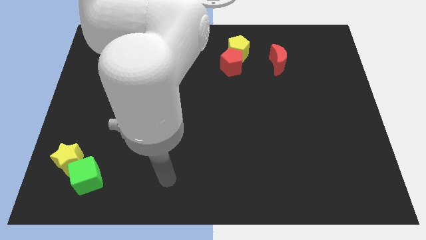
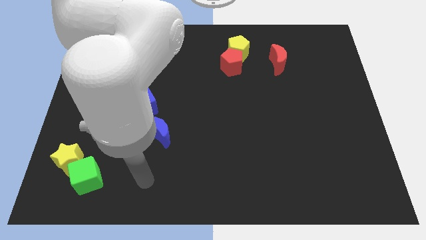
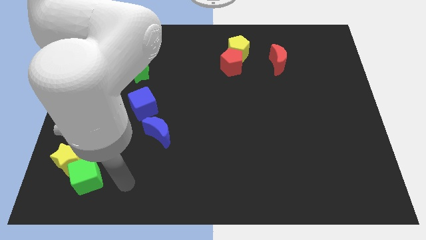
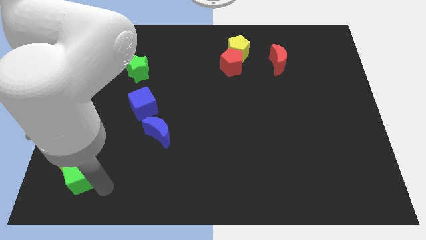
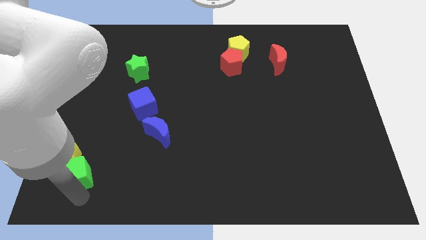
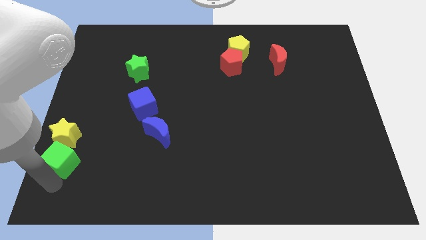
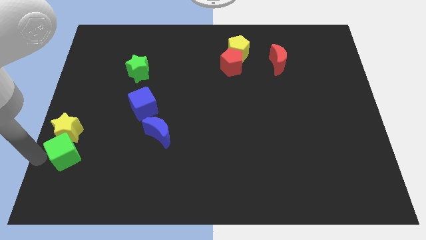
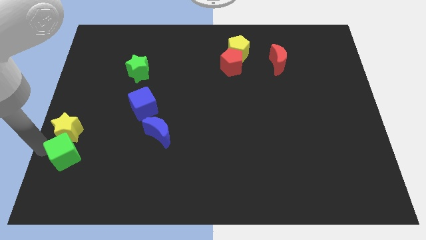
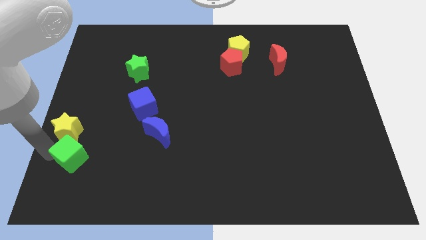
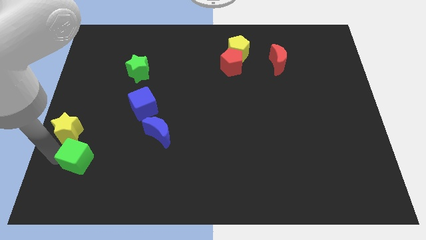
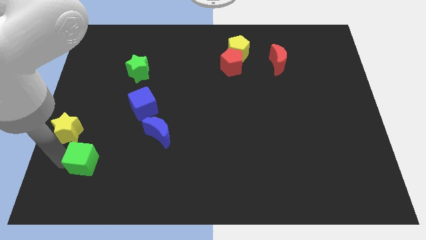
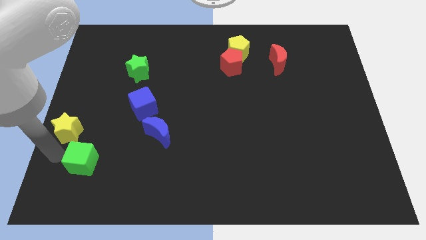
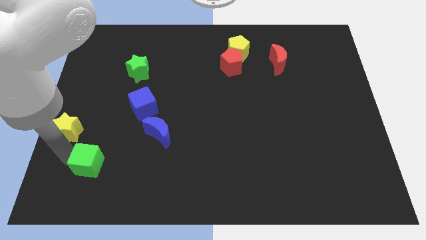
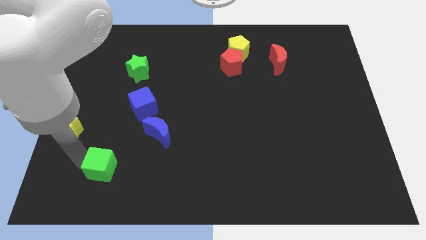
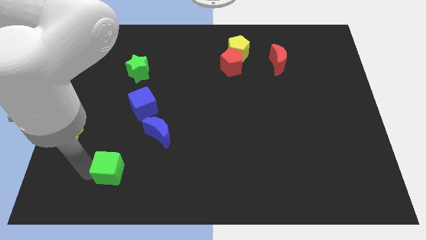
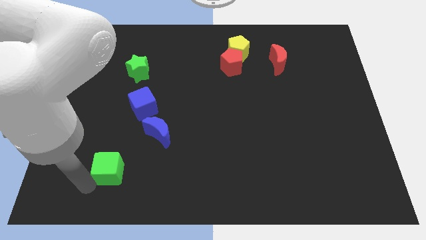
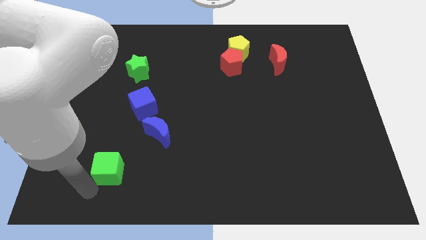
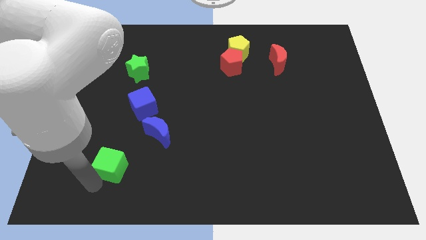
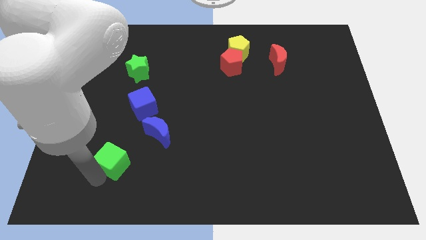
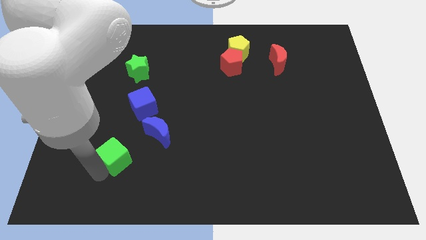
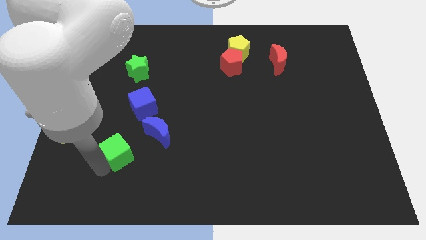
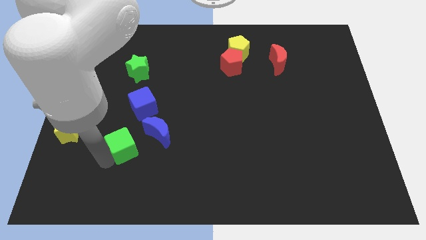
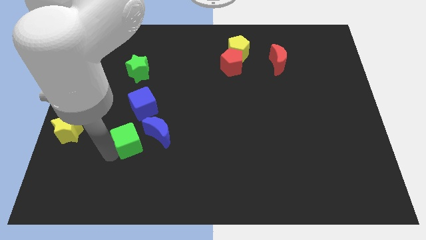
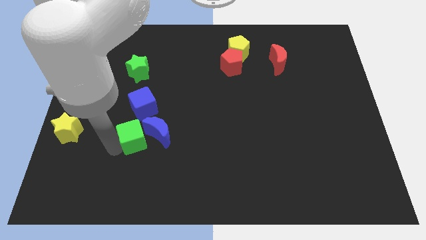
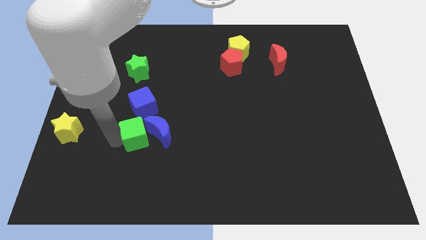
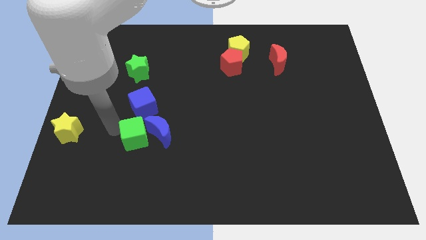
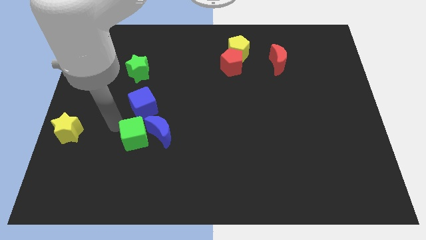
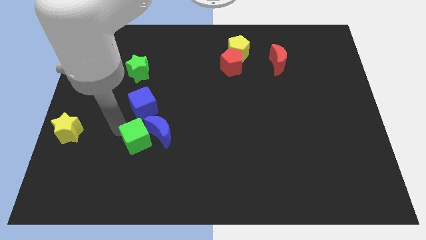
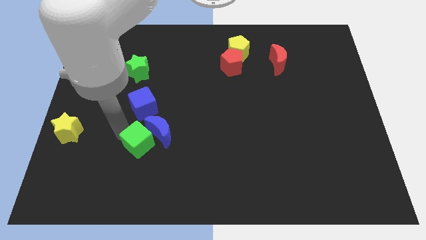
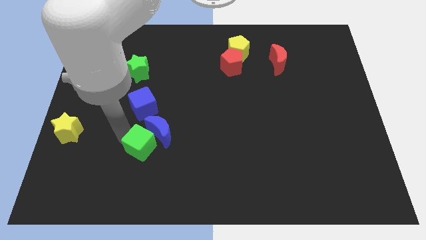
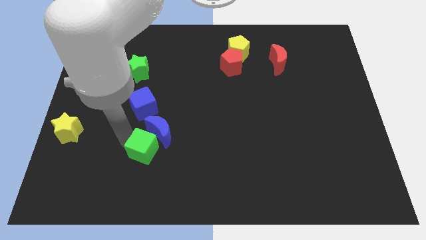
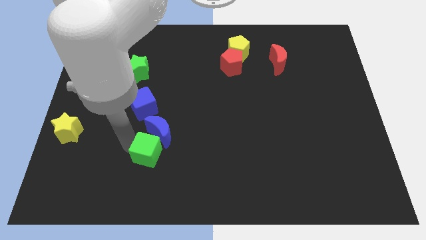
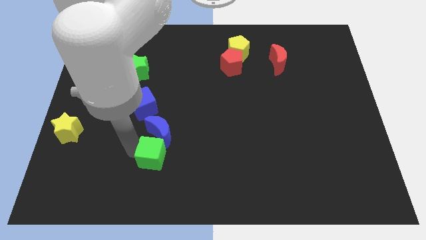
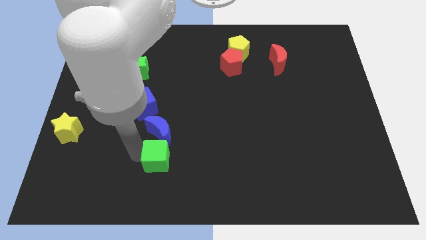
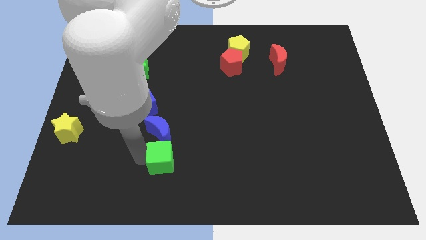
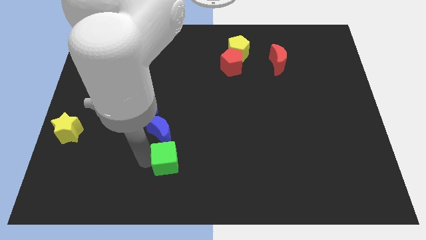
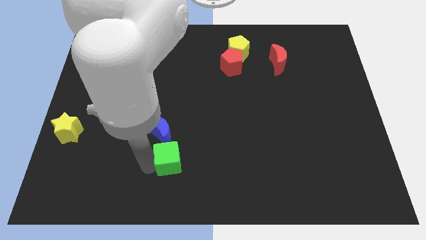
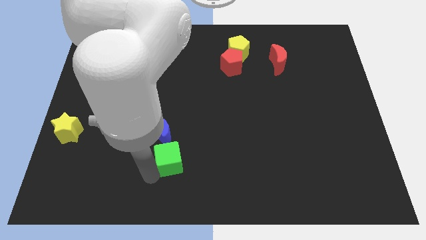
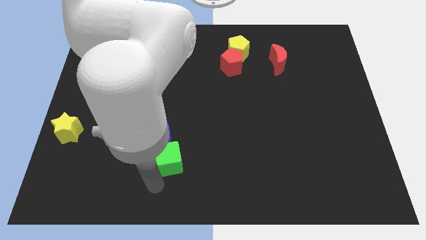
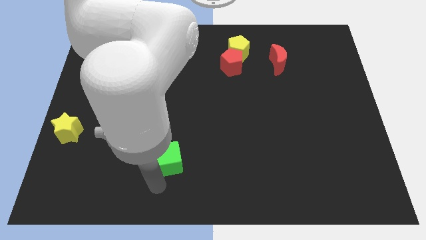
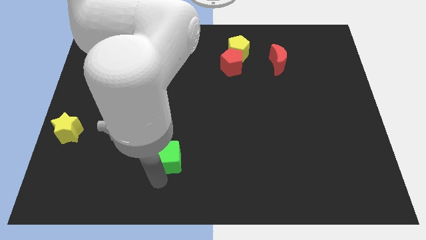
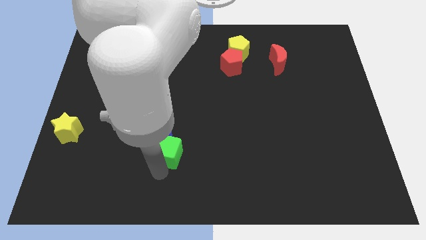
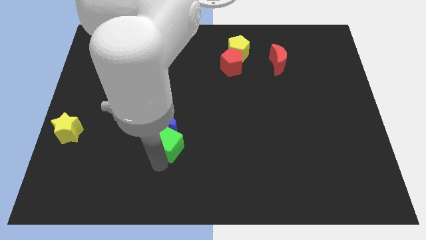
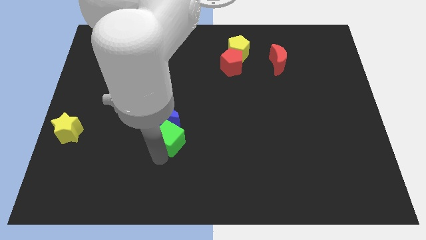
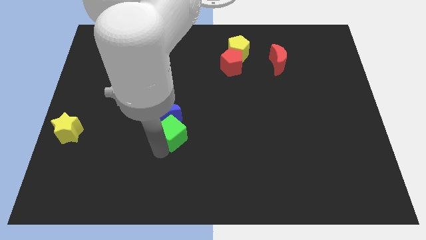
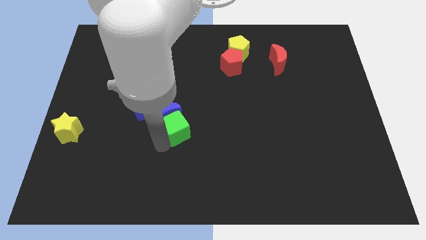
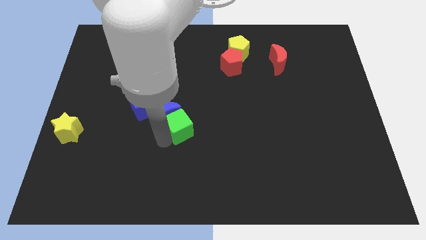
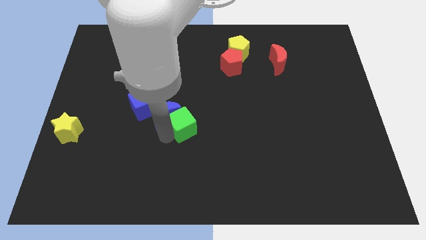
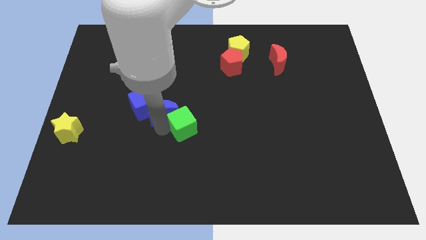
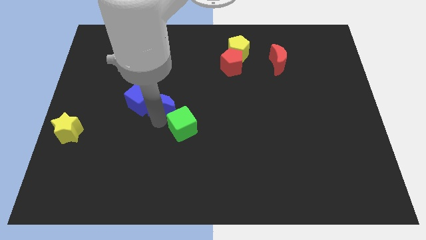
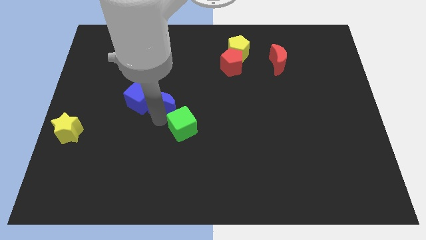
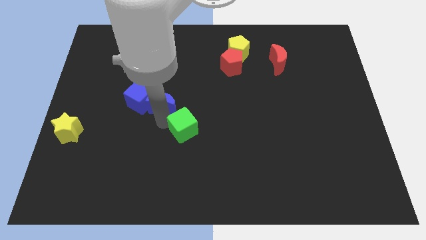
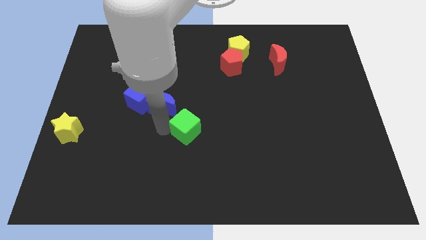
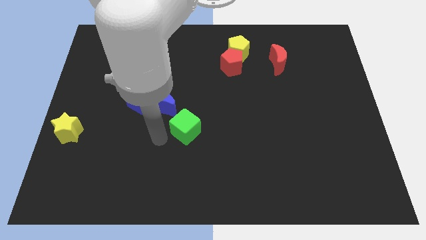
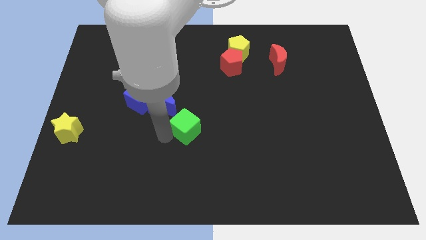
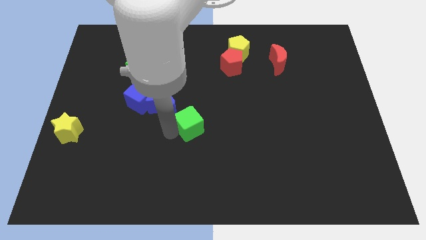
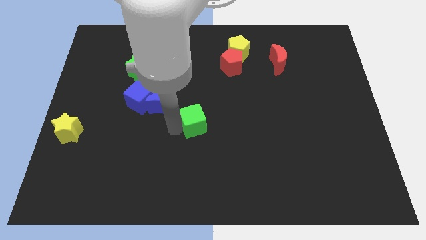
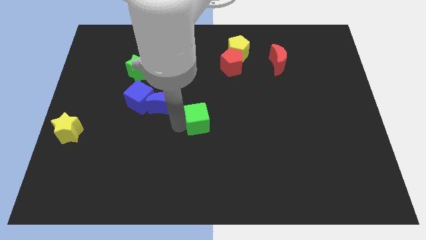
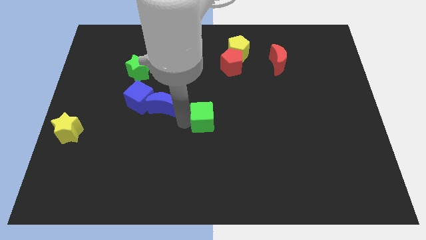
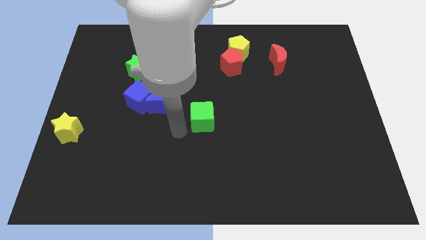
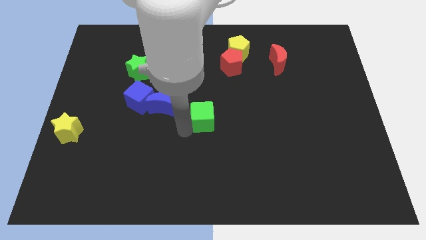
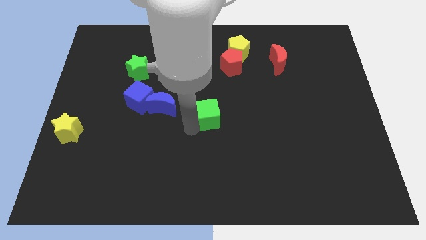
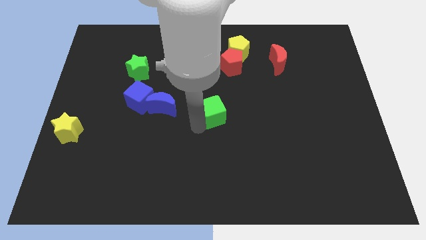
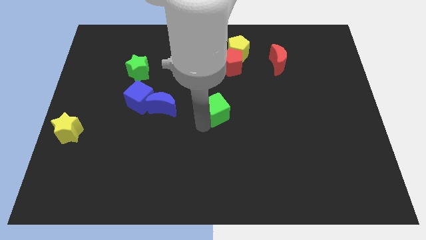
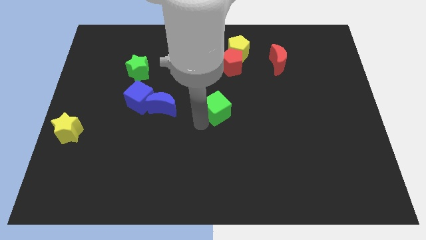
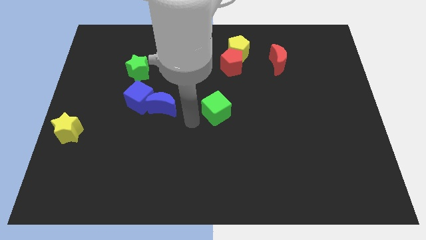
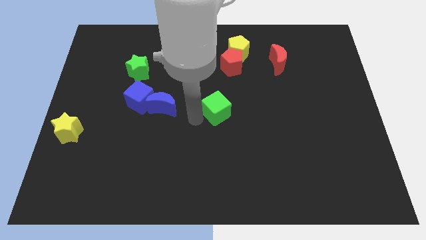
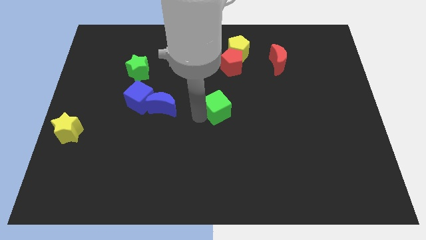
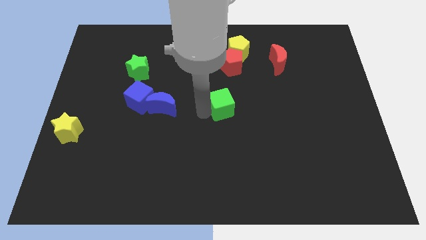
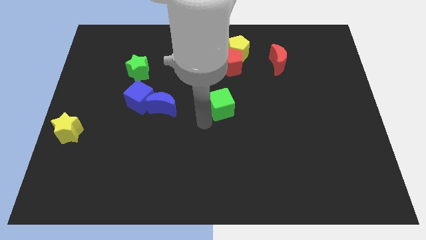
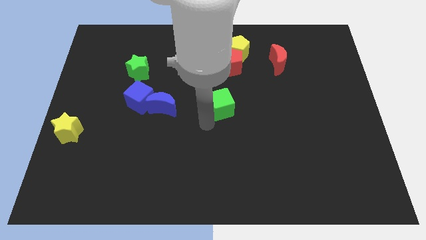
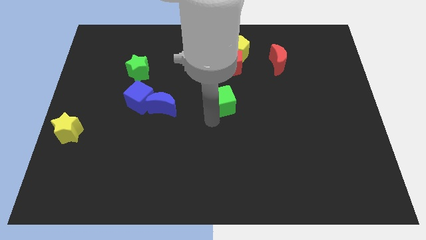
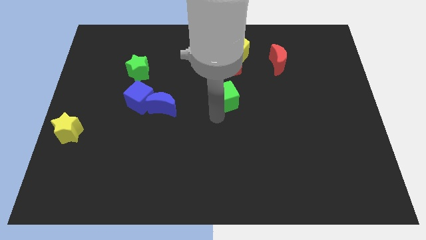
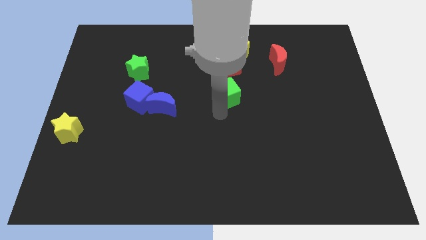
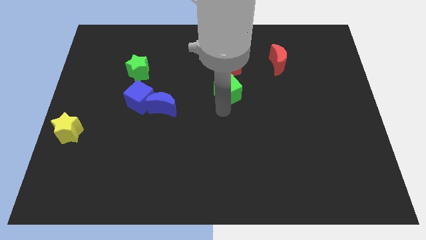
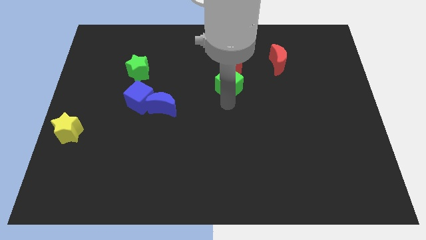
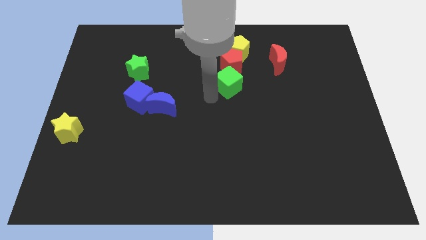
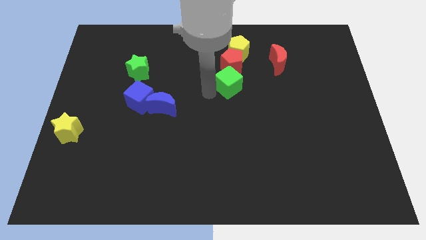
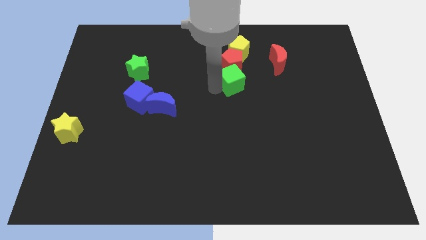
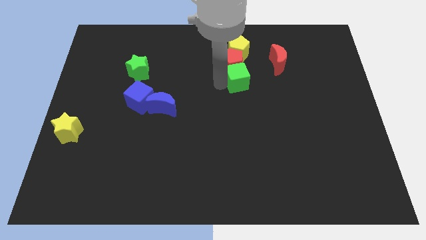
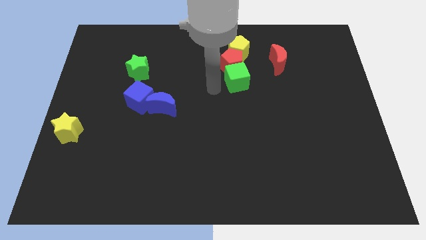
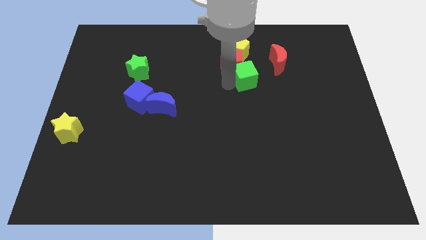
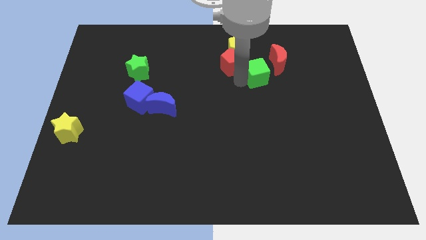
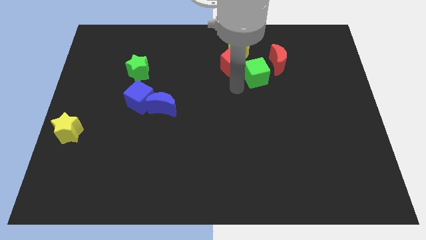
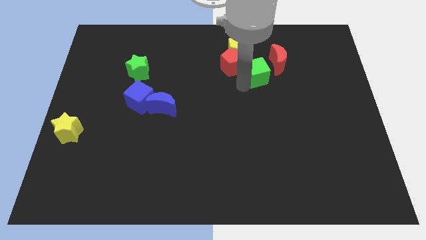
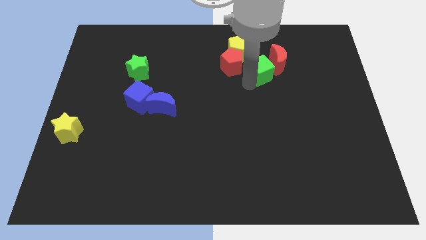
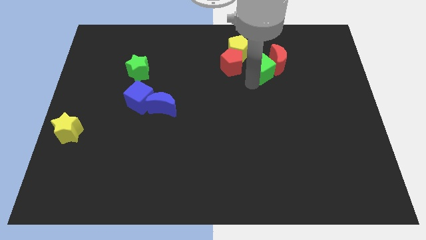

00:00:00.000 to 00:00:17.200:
slide the green cube towards the red moon
